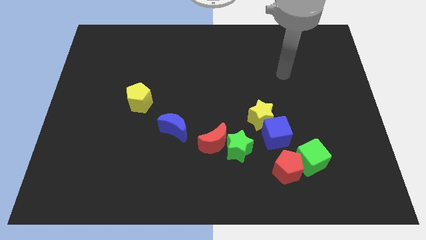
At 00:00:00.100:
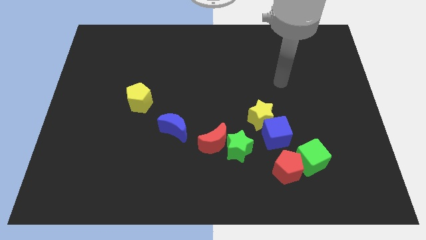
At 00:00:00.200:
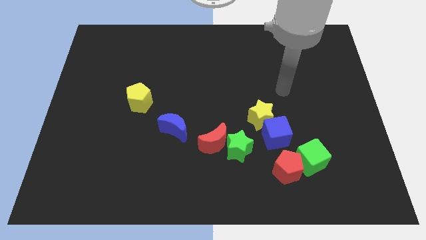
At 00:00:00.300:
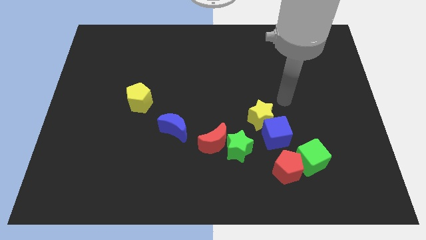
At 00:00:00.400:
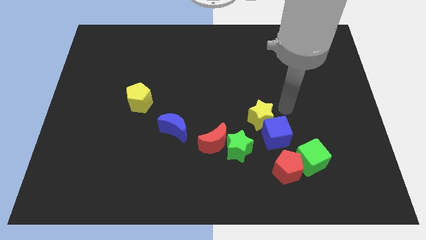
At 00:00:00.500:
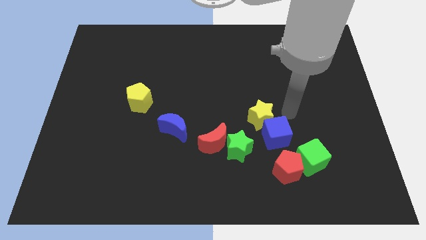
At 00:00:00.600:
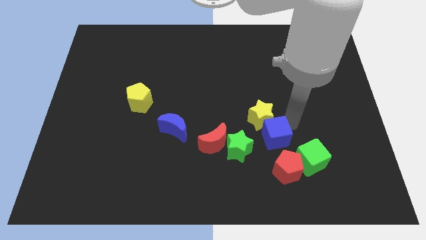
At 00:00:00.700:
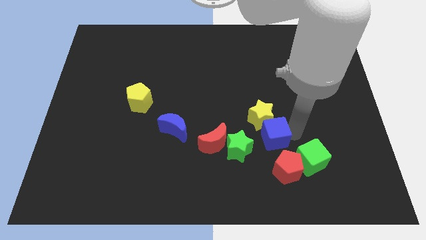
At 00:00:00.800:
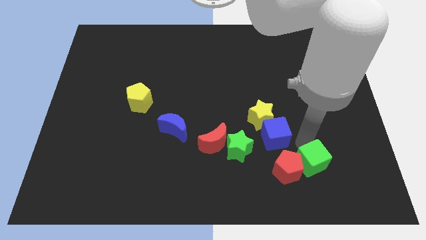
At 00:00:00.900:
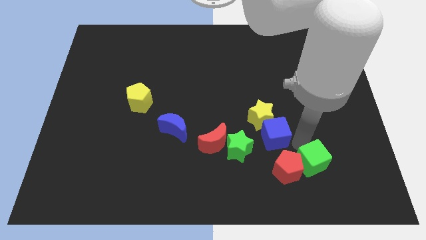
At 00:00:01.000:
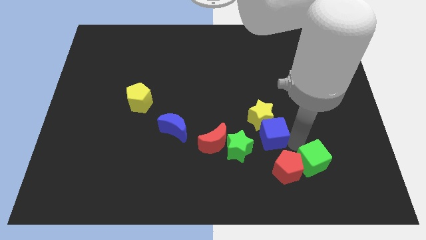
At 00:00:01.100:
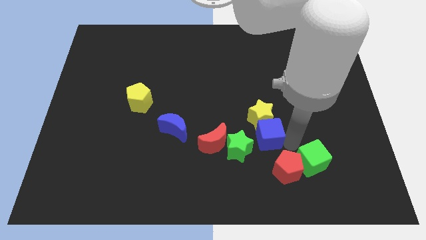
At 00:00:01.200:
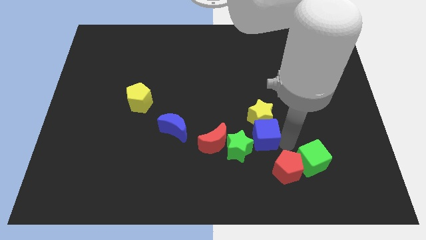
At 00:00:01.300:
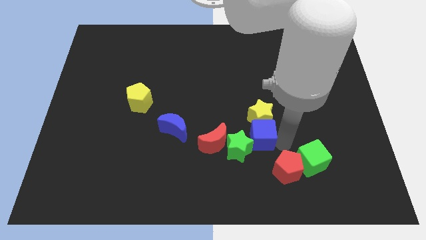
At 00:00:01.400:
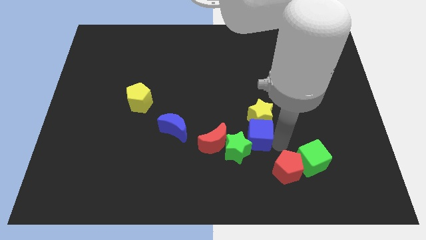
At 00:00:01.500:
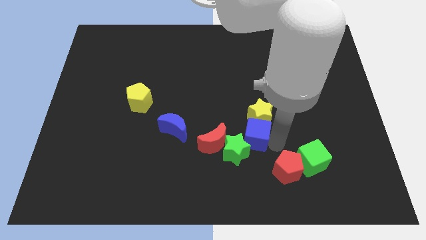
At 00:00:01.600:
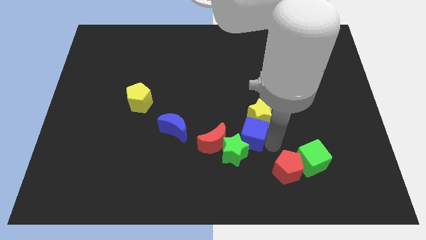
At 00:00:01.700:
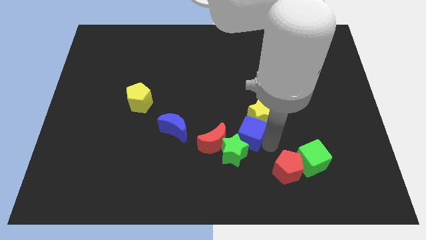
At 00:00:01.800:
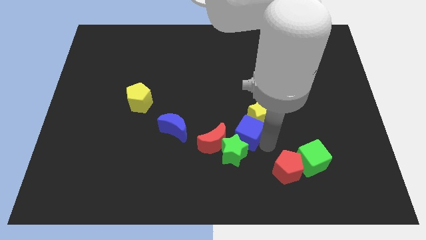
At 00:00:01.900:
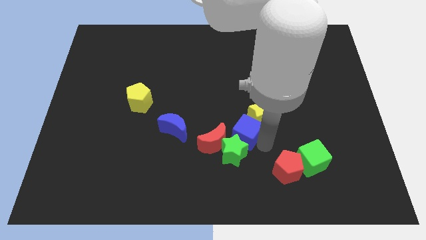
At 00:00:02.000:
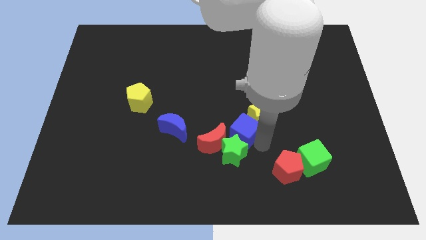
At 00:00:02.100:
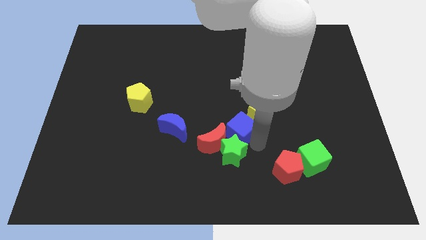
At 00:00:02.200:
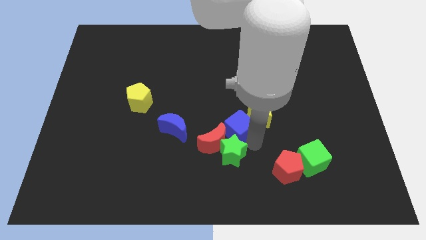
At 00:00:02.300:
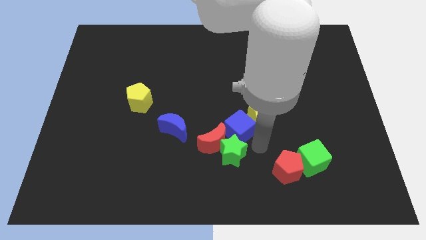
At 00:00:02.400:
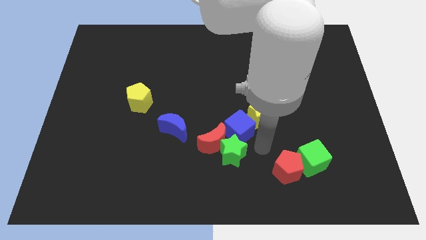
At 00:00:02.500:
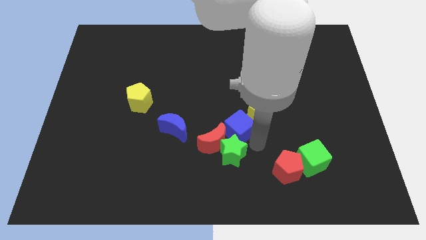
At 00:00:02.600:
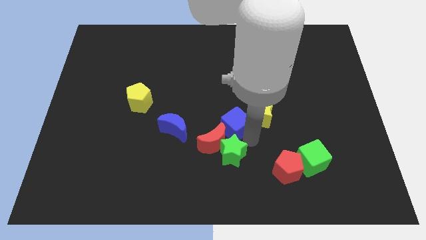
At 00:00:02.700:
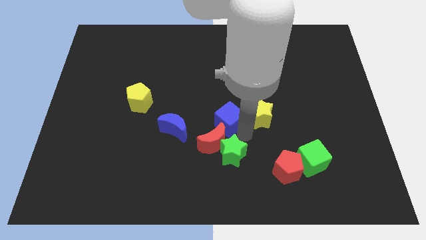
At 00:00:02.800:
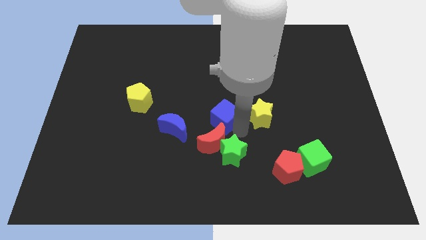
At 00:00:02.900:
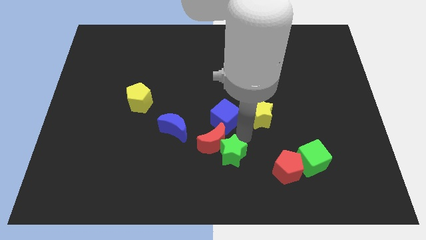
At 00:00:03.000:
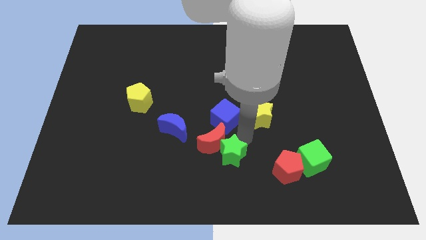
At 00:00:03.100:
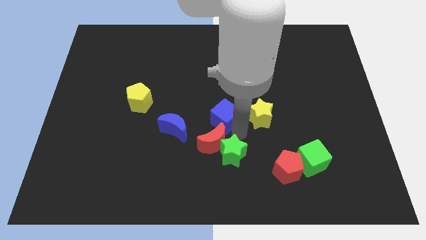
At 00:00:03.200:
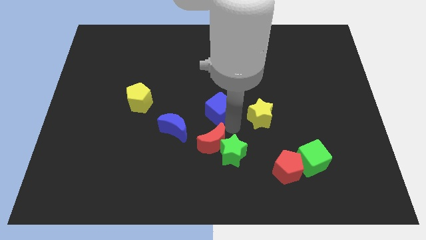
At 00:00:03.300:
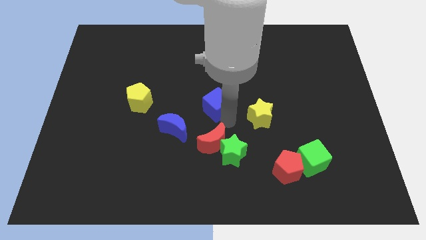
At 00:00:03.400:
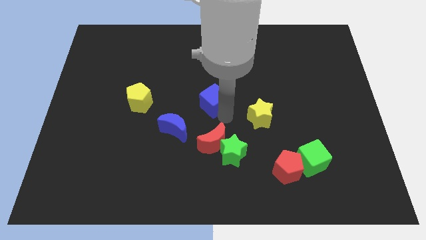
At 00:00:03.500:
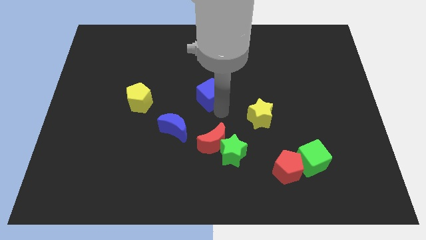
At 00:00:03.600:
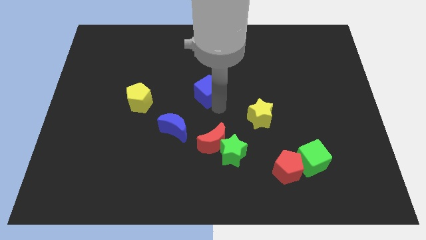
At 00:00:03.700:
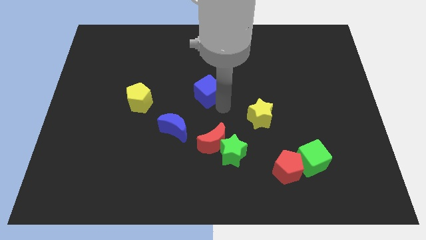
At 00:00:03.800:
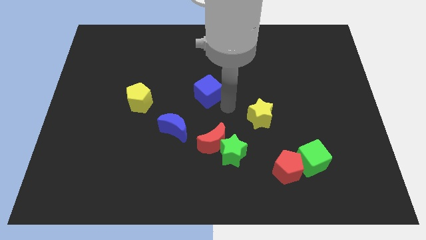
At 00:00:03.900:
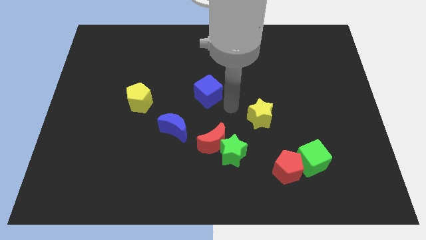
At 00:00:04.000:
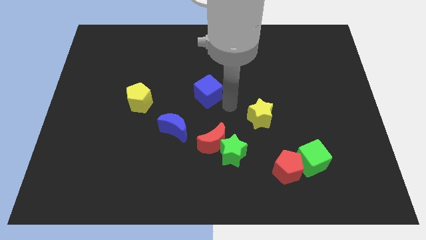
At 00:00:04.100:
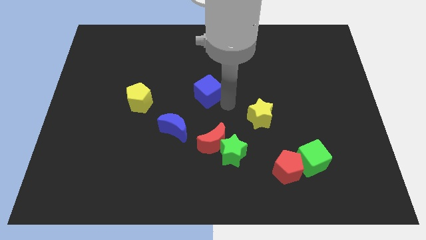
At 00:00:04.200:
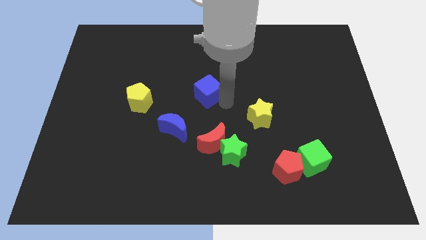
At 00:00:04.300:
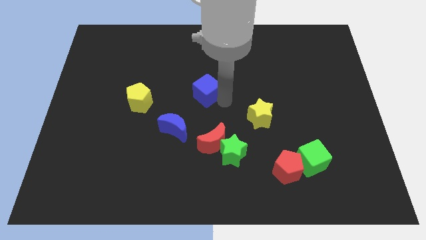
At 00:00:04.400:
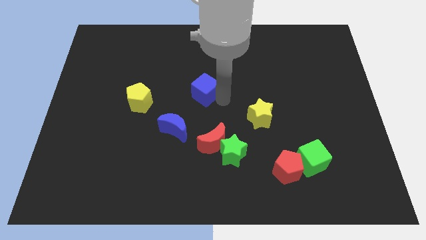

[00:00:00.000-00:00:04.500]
slide the blue cube diagonally up and to the left

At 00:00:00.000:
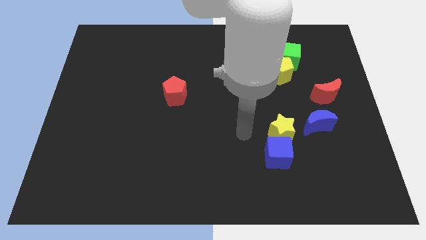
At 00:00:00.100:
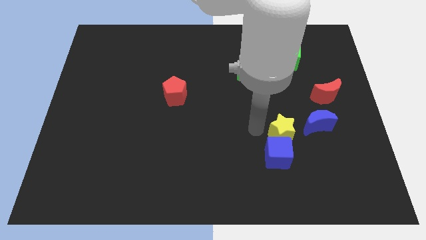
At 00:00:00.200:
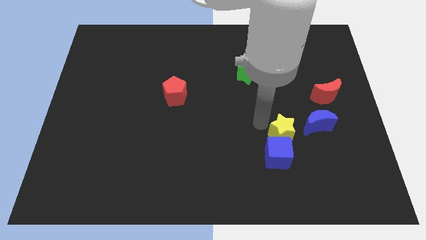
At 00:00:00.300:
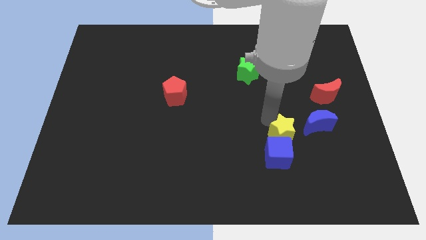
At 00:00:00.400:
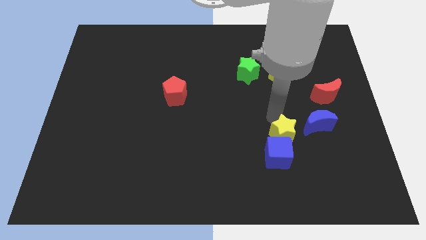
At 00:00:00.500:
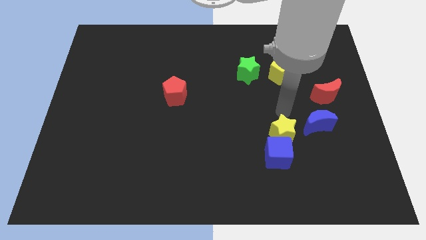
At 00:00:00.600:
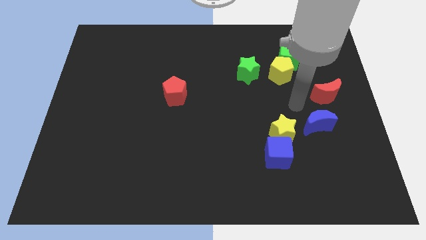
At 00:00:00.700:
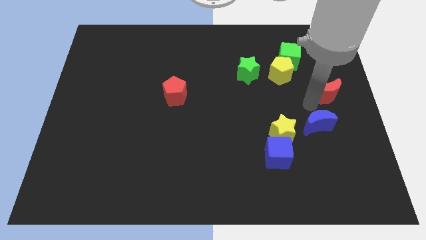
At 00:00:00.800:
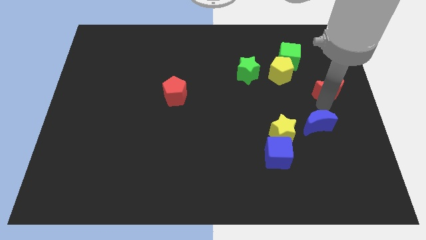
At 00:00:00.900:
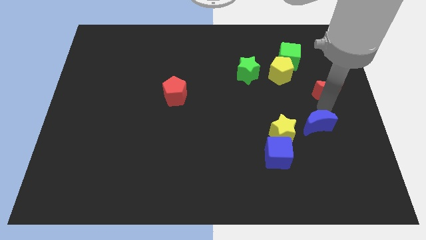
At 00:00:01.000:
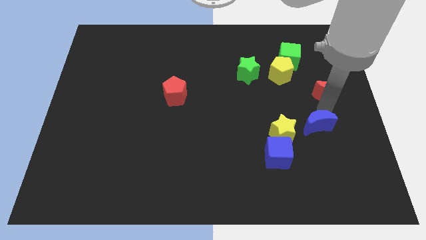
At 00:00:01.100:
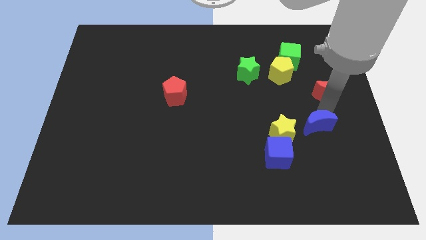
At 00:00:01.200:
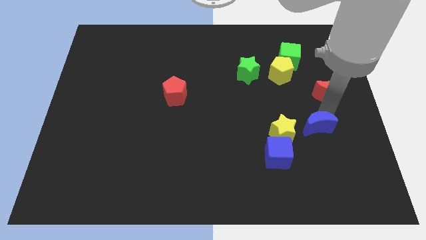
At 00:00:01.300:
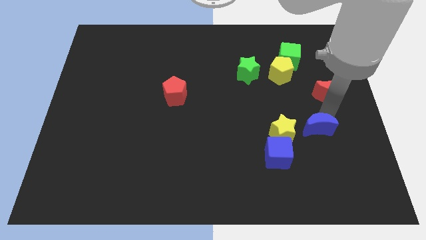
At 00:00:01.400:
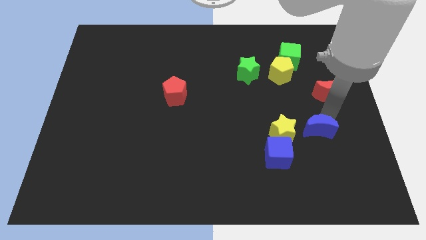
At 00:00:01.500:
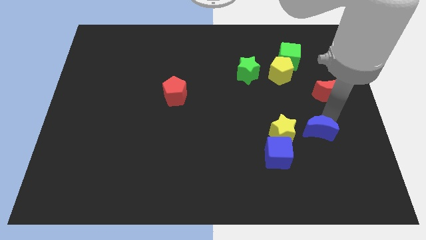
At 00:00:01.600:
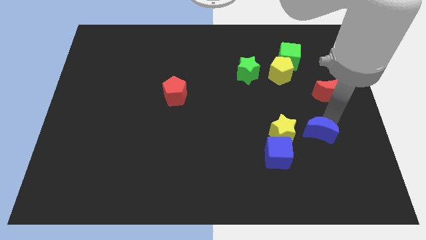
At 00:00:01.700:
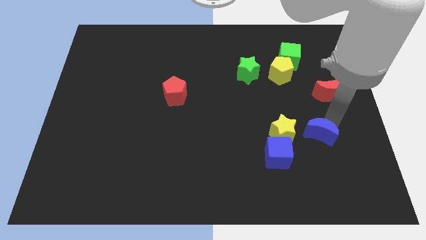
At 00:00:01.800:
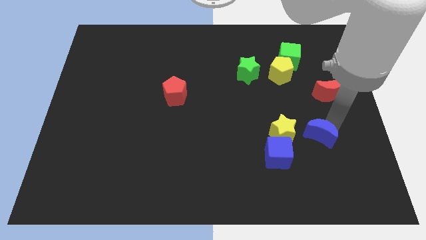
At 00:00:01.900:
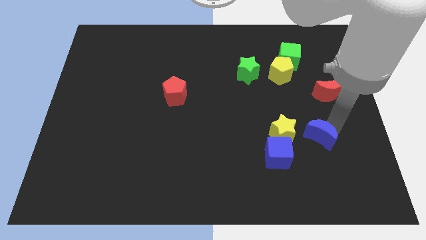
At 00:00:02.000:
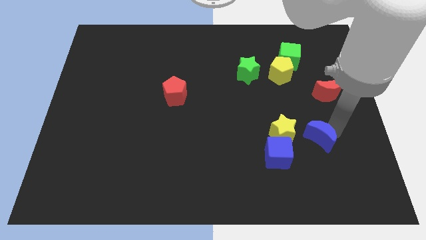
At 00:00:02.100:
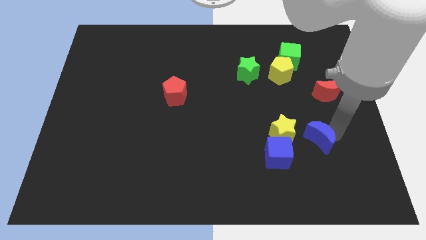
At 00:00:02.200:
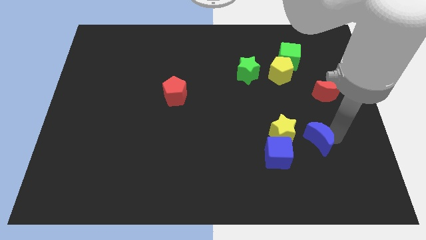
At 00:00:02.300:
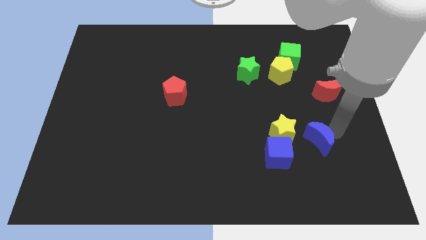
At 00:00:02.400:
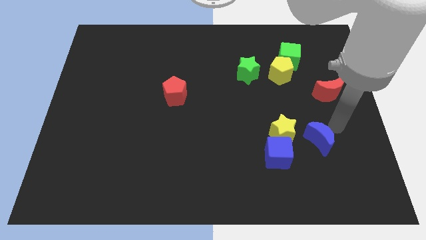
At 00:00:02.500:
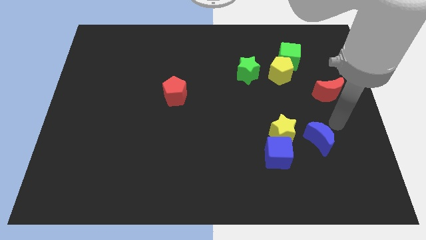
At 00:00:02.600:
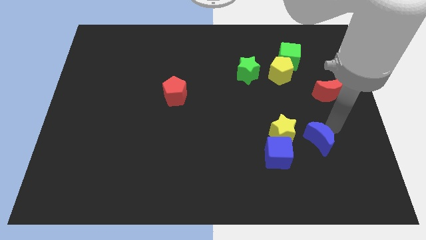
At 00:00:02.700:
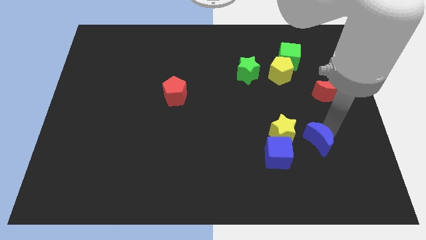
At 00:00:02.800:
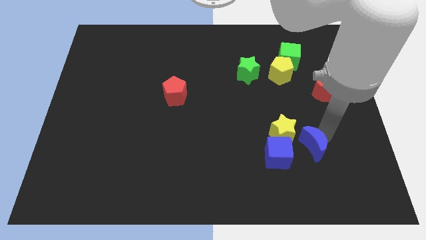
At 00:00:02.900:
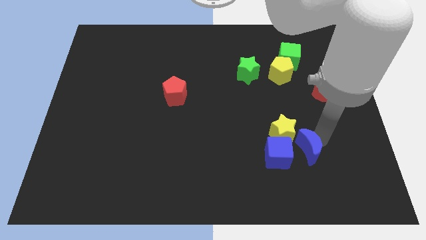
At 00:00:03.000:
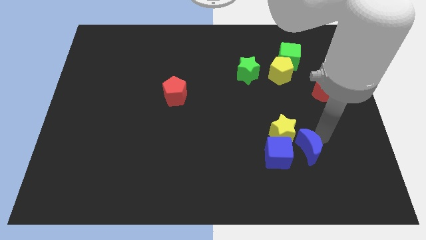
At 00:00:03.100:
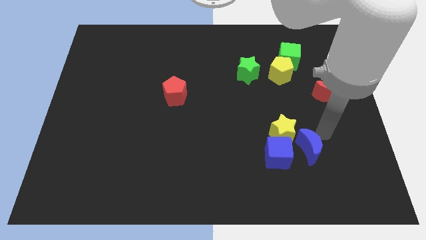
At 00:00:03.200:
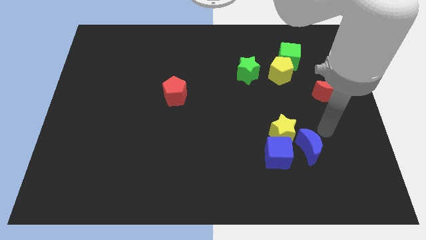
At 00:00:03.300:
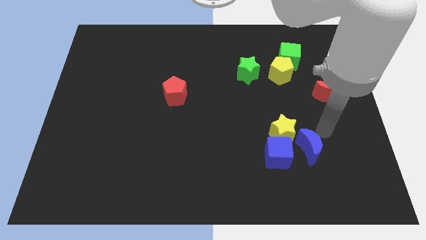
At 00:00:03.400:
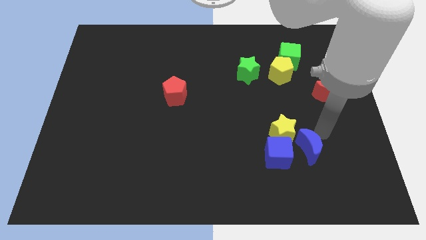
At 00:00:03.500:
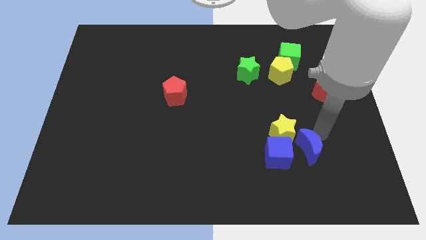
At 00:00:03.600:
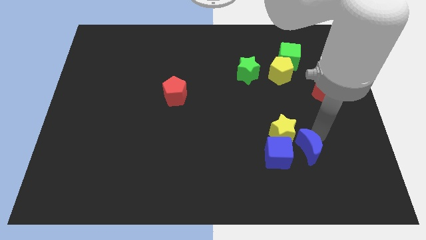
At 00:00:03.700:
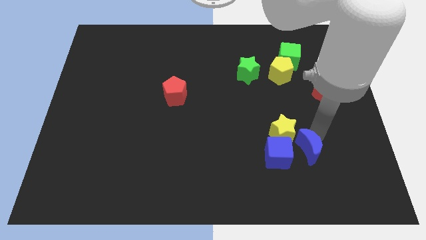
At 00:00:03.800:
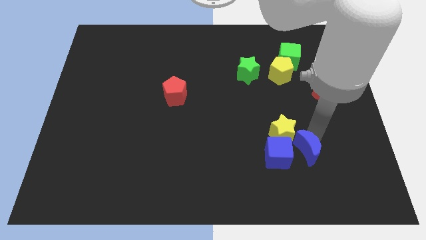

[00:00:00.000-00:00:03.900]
slightly slide the blue moon diagonally down and to the left
